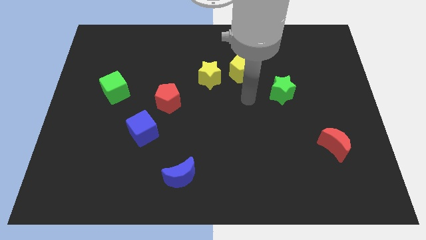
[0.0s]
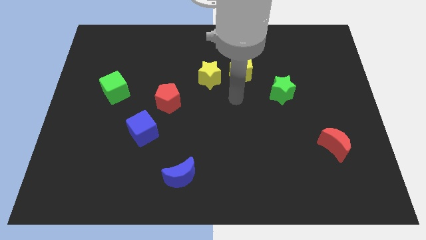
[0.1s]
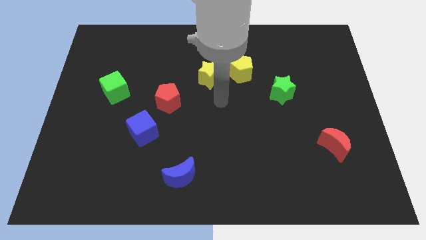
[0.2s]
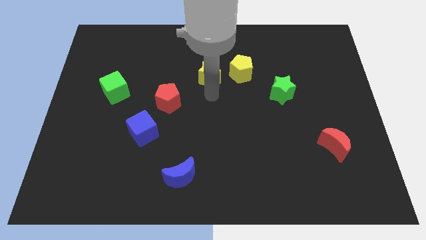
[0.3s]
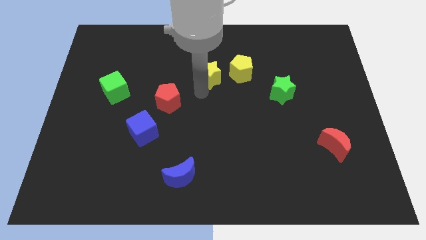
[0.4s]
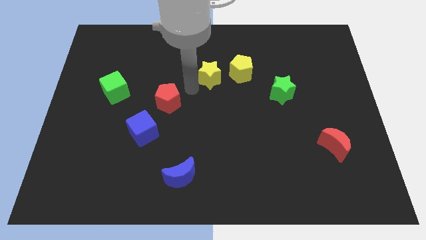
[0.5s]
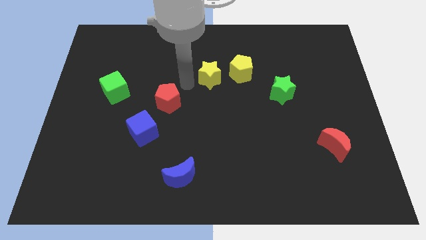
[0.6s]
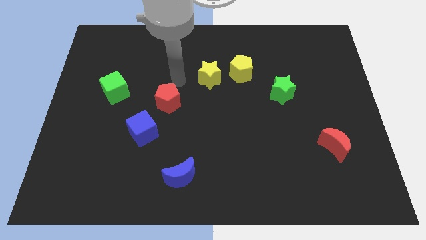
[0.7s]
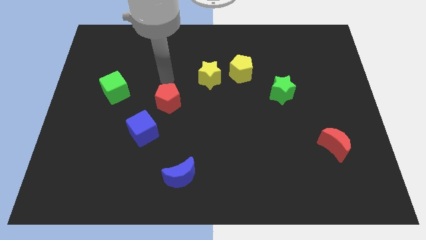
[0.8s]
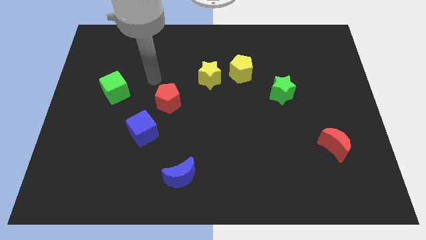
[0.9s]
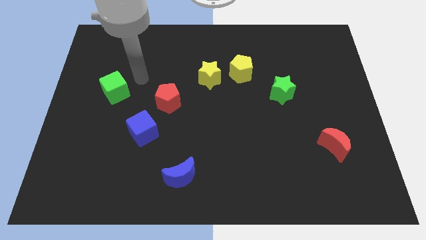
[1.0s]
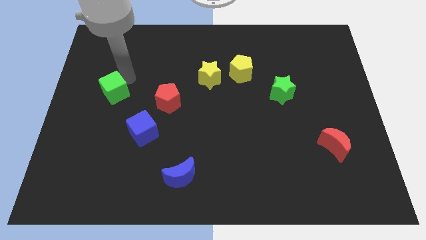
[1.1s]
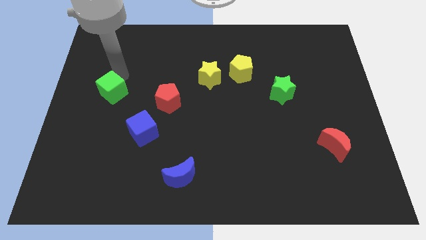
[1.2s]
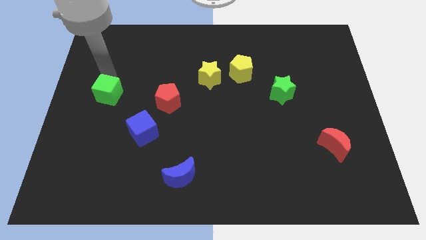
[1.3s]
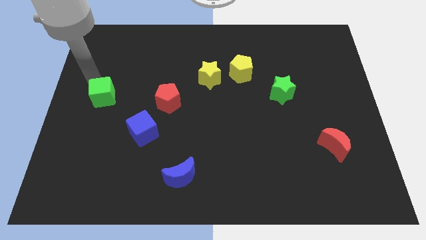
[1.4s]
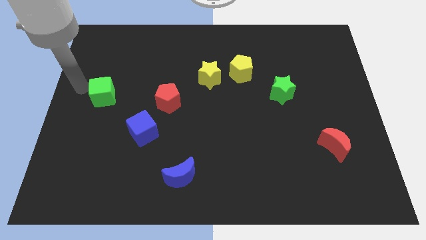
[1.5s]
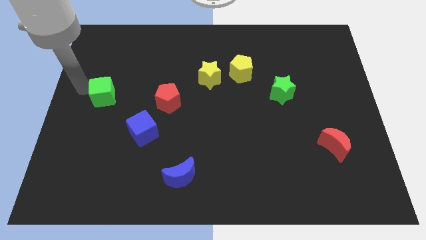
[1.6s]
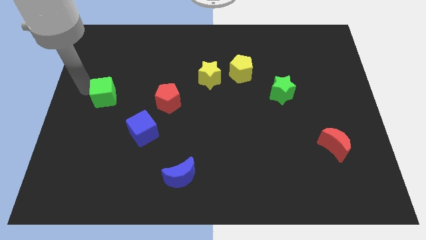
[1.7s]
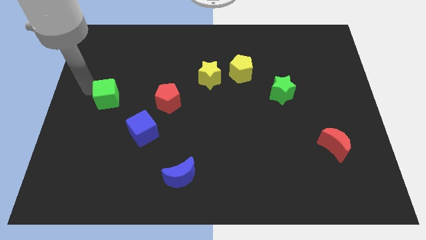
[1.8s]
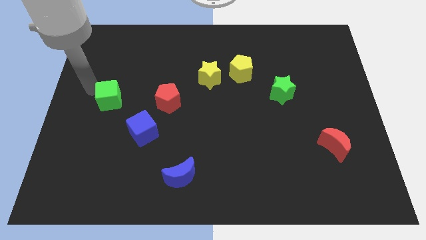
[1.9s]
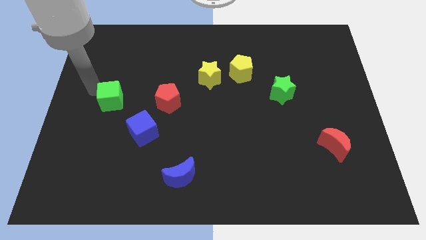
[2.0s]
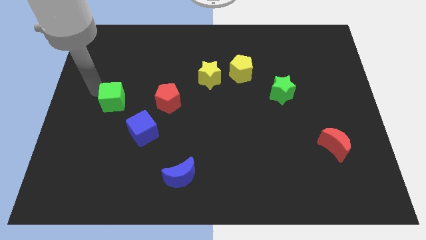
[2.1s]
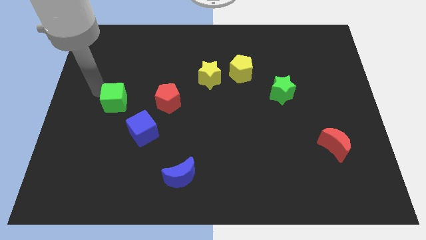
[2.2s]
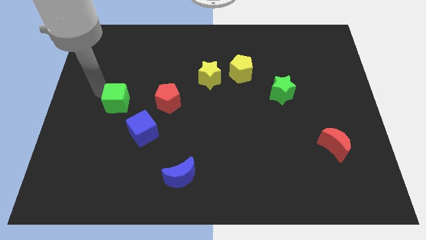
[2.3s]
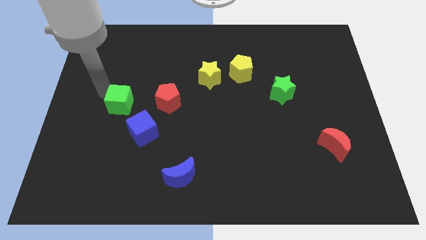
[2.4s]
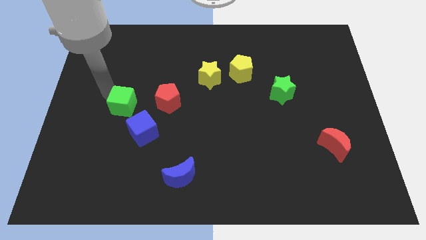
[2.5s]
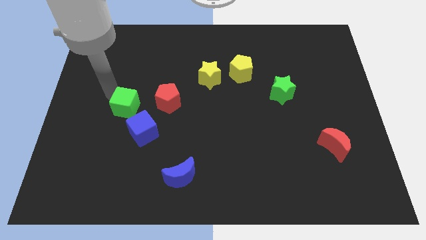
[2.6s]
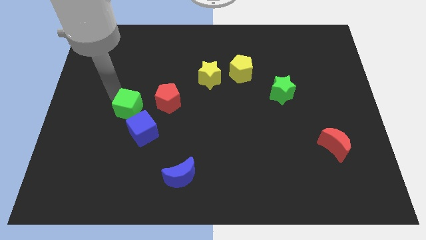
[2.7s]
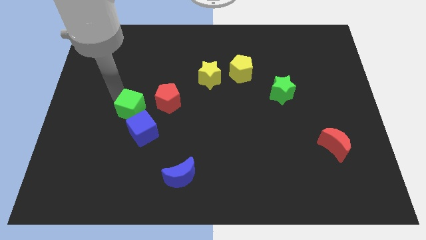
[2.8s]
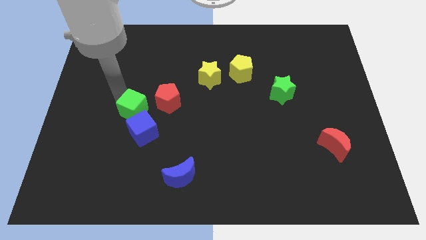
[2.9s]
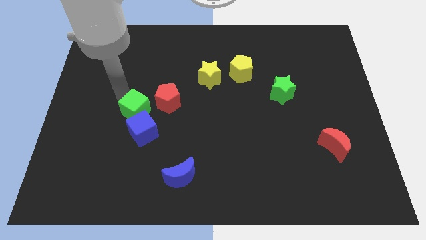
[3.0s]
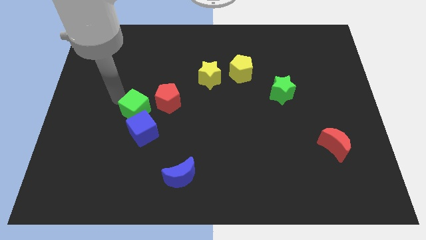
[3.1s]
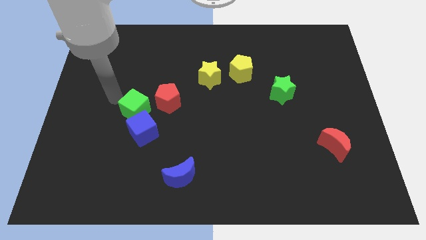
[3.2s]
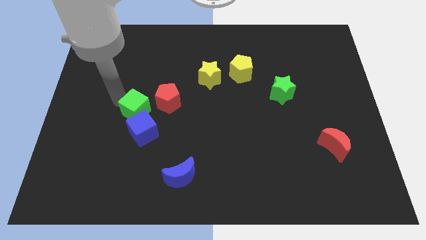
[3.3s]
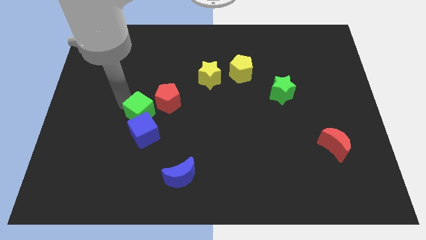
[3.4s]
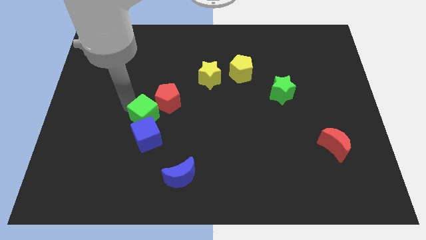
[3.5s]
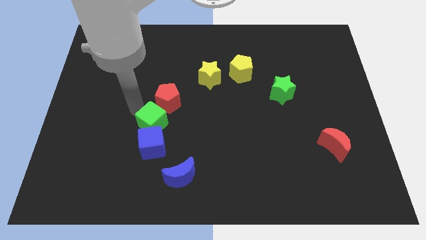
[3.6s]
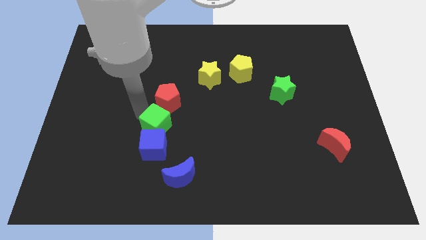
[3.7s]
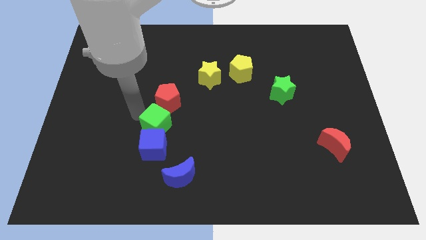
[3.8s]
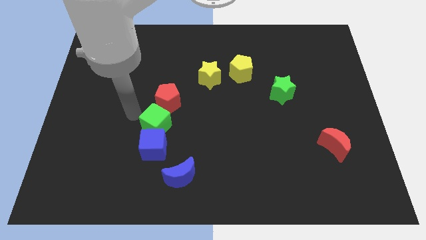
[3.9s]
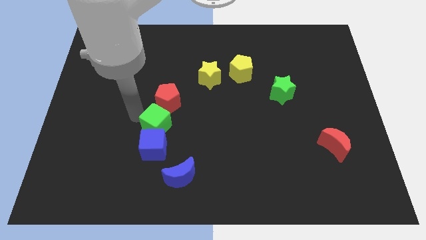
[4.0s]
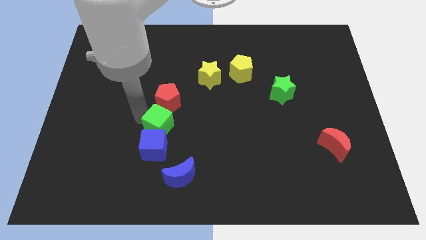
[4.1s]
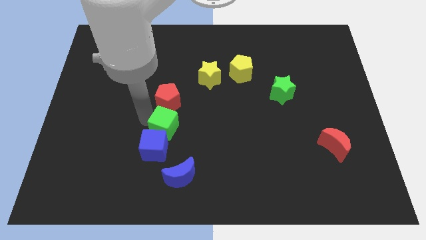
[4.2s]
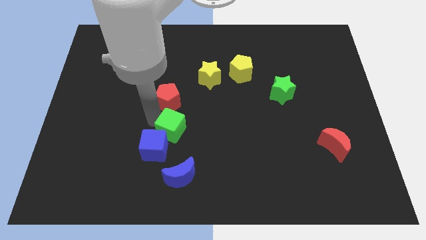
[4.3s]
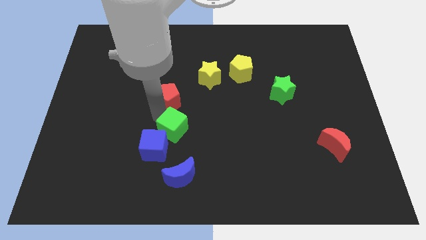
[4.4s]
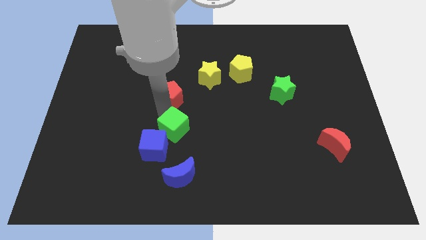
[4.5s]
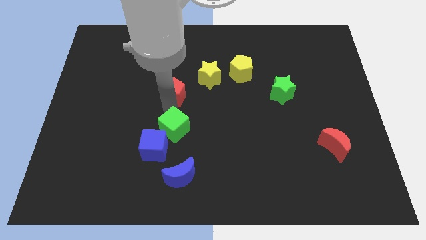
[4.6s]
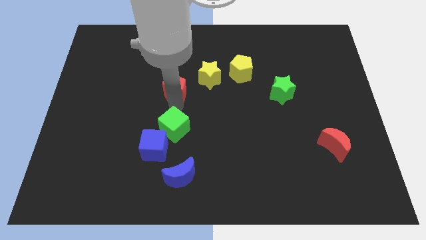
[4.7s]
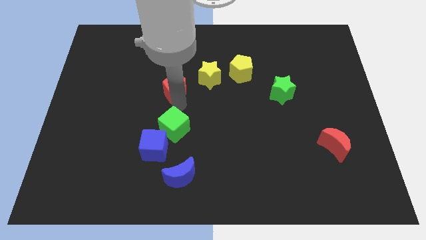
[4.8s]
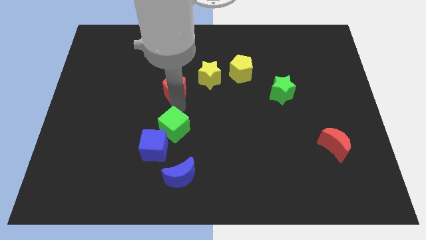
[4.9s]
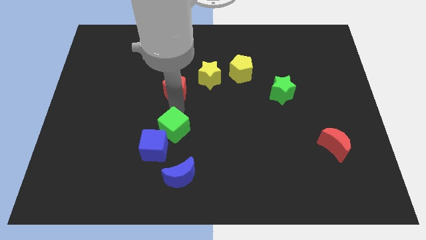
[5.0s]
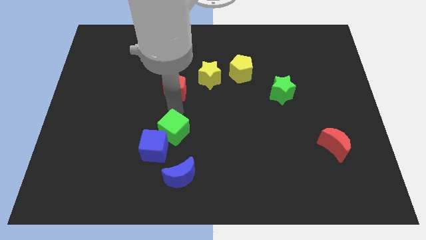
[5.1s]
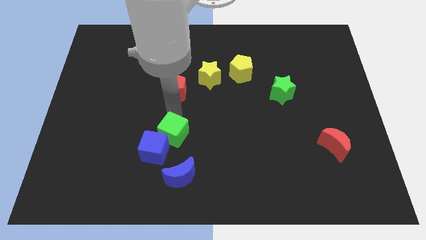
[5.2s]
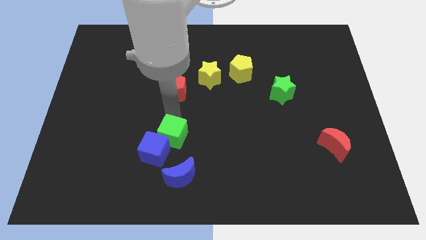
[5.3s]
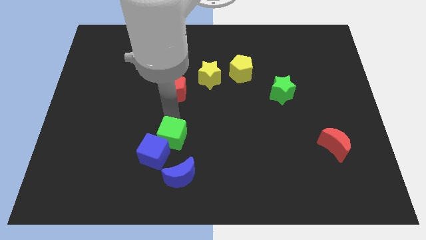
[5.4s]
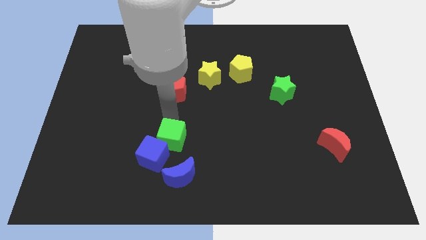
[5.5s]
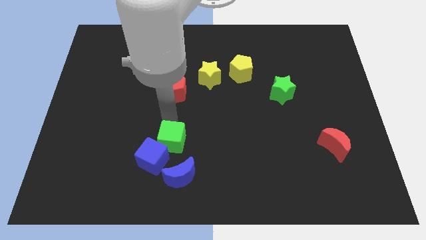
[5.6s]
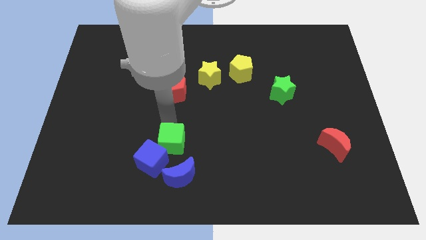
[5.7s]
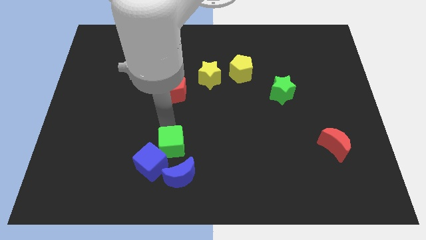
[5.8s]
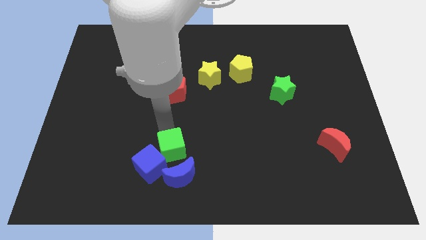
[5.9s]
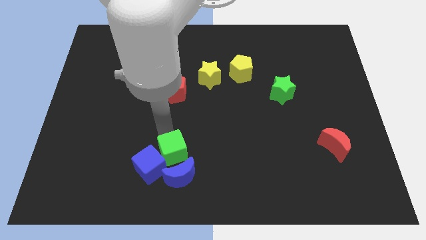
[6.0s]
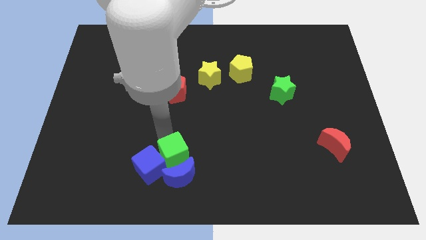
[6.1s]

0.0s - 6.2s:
slide the green cube towards the blue moon

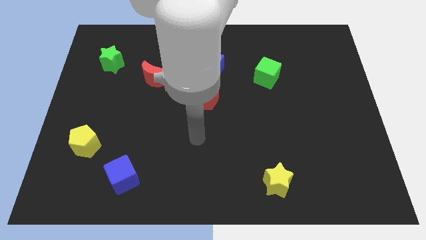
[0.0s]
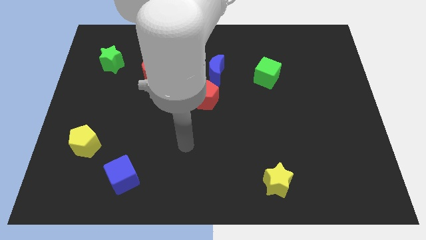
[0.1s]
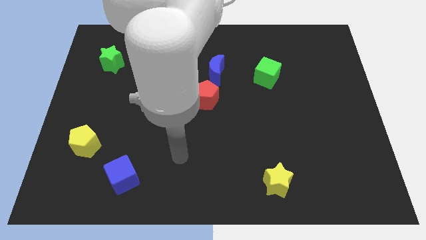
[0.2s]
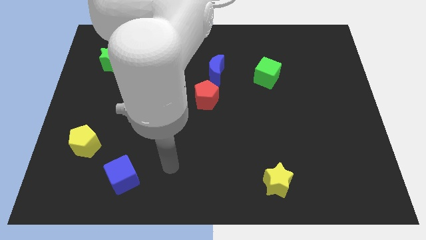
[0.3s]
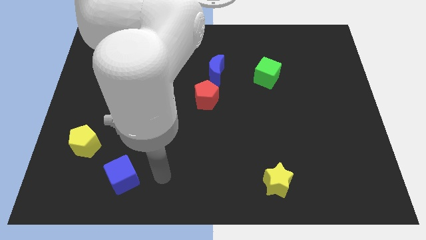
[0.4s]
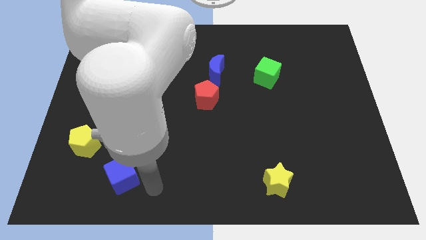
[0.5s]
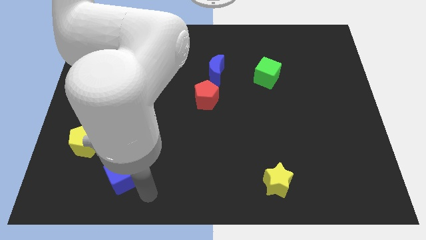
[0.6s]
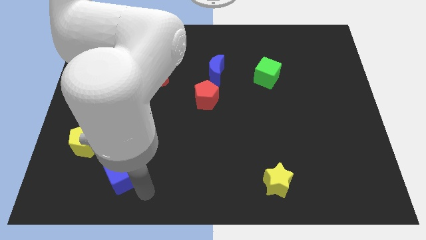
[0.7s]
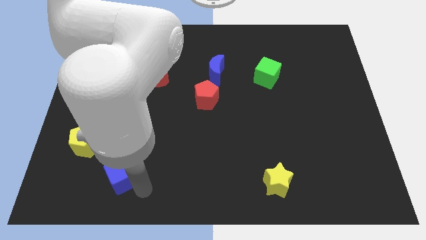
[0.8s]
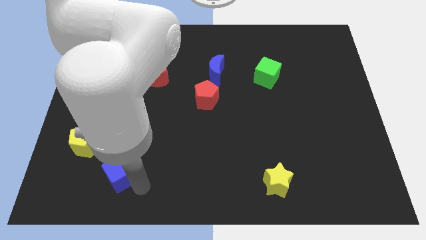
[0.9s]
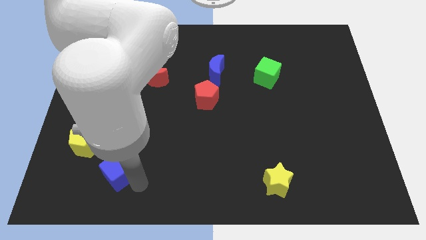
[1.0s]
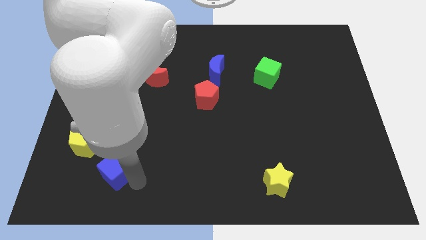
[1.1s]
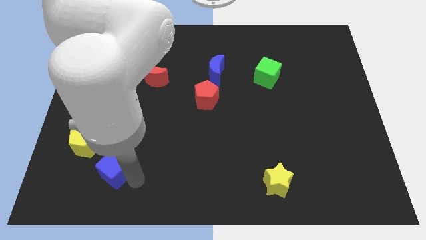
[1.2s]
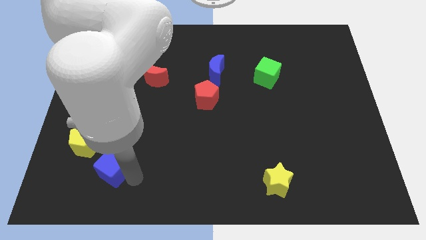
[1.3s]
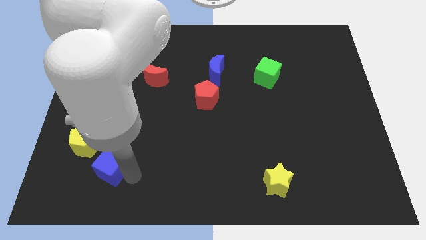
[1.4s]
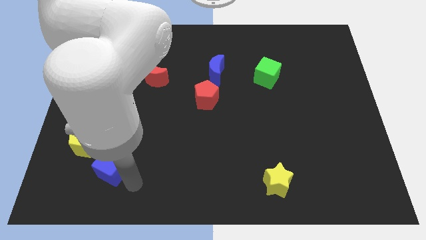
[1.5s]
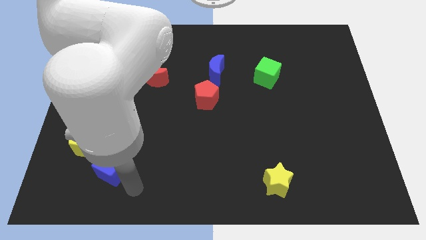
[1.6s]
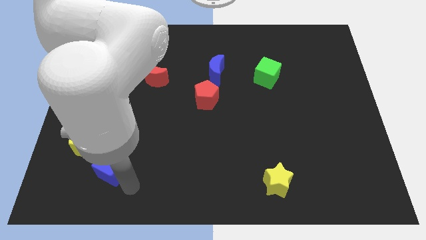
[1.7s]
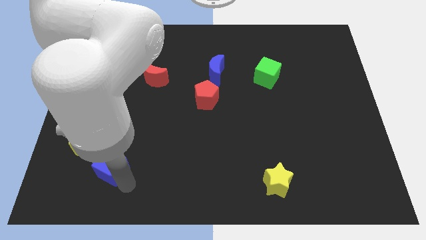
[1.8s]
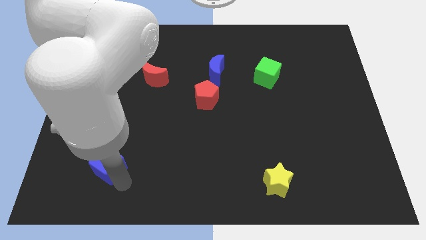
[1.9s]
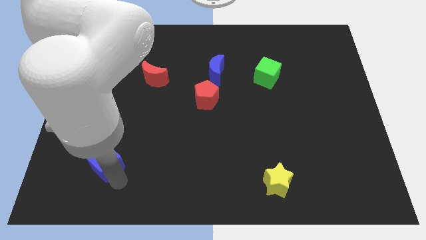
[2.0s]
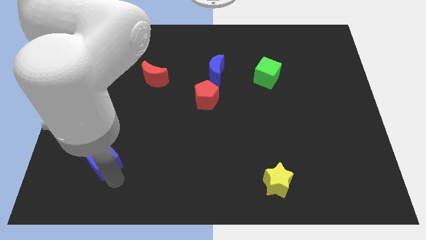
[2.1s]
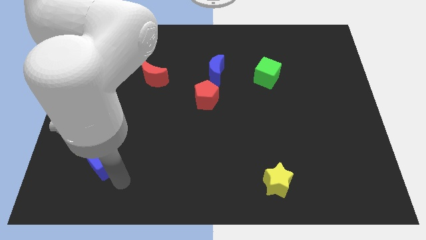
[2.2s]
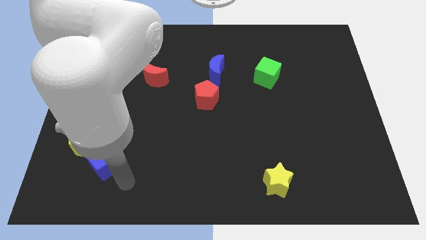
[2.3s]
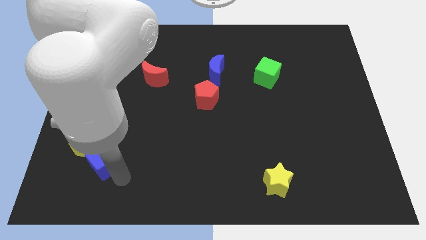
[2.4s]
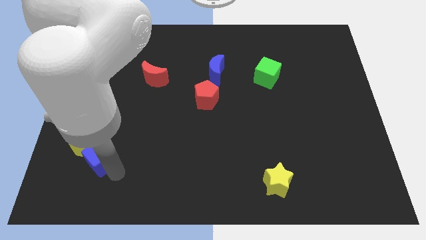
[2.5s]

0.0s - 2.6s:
slide the blue cube to the yellow pentagon

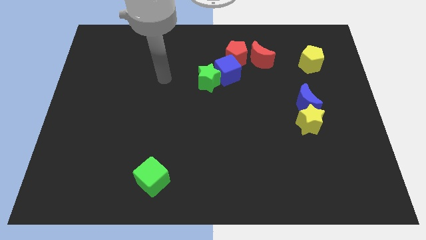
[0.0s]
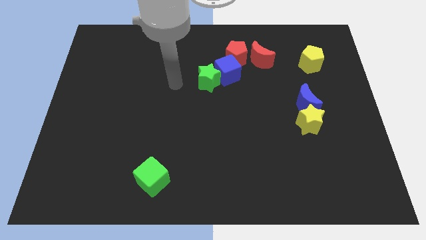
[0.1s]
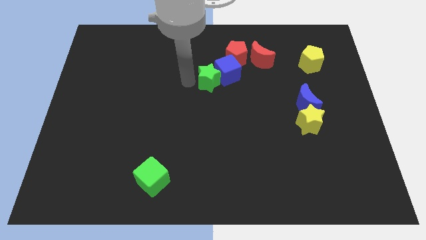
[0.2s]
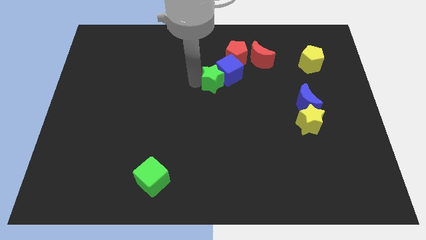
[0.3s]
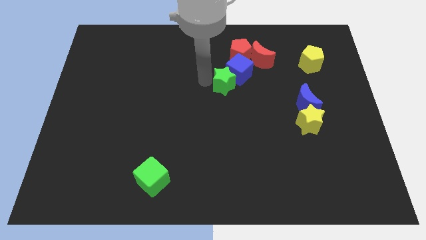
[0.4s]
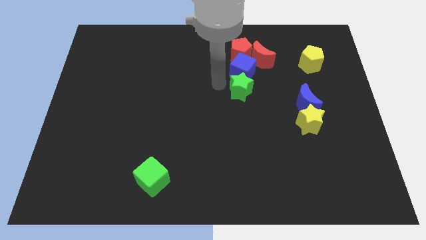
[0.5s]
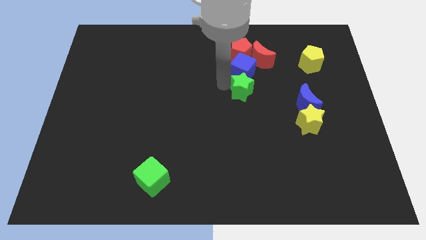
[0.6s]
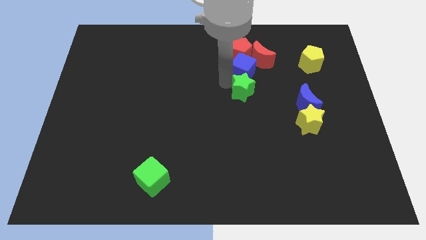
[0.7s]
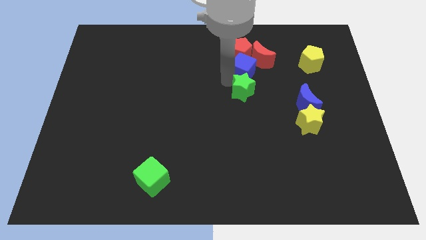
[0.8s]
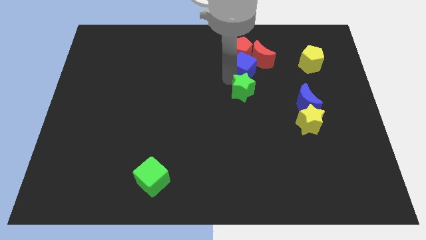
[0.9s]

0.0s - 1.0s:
put the blue cube close to the red moon
